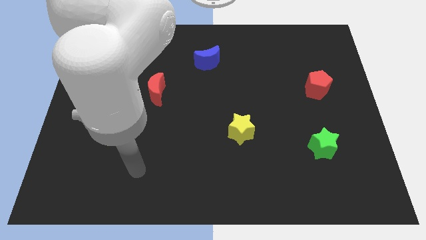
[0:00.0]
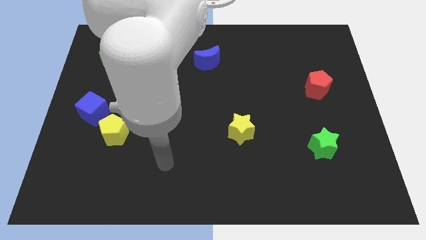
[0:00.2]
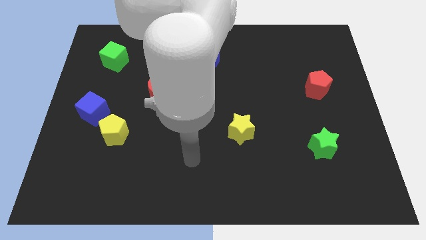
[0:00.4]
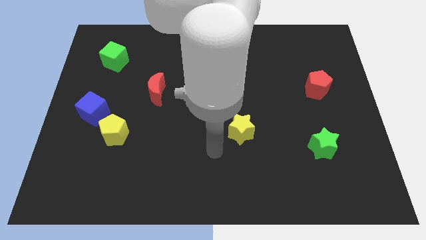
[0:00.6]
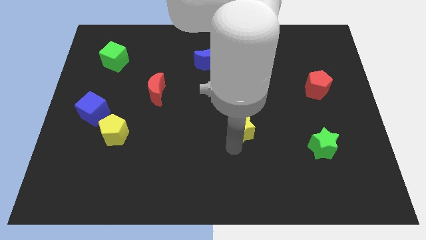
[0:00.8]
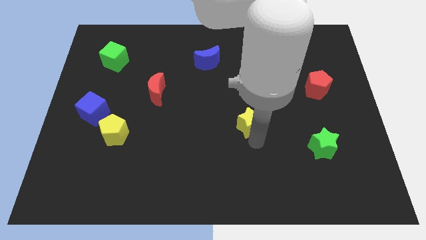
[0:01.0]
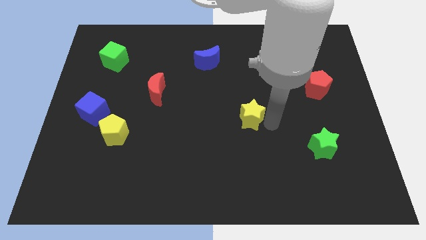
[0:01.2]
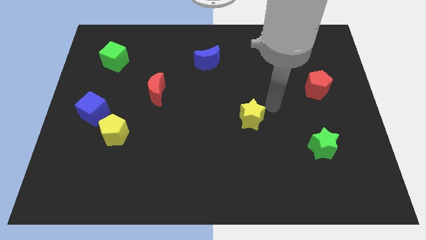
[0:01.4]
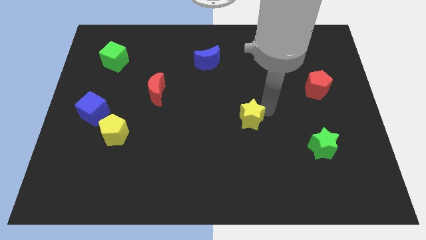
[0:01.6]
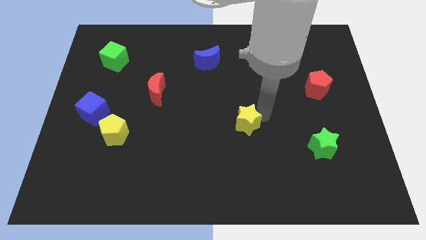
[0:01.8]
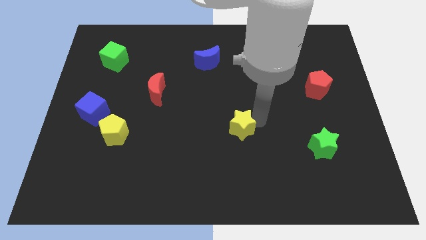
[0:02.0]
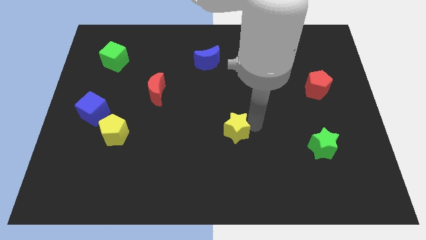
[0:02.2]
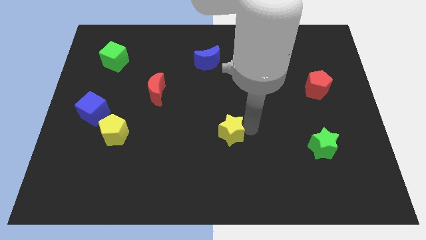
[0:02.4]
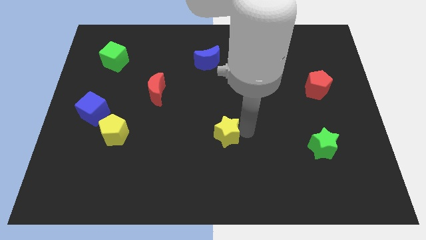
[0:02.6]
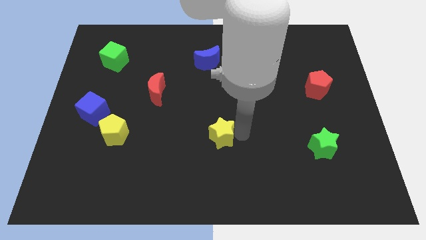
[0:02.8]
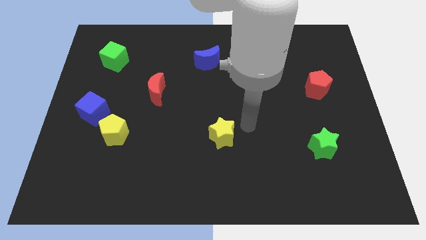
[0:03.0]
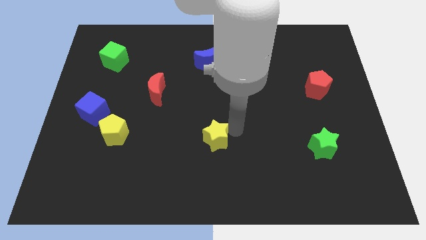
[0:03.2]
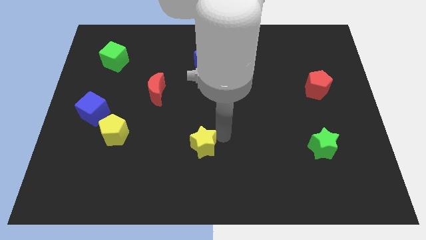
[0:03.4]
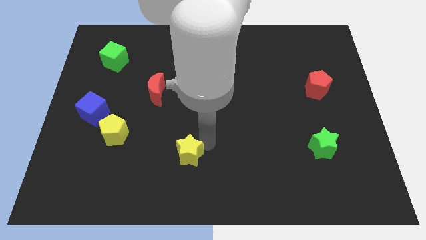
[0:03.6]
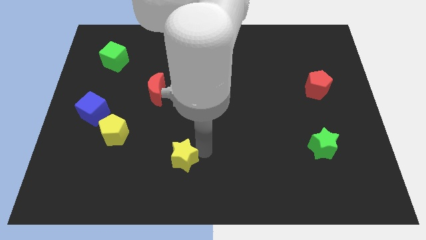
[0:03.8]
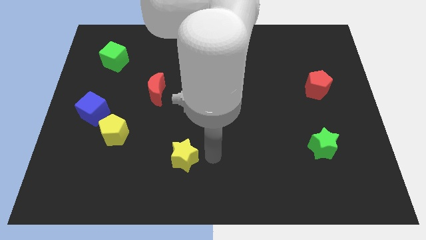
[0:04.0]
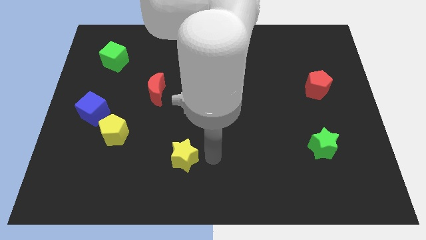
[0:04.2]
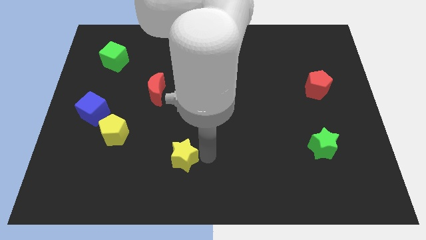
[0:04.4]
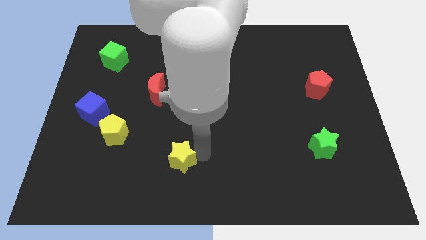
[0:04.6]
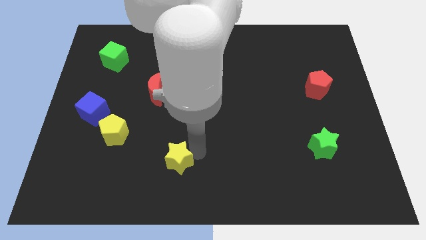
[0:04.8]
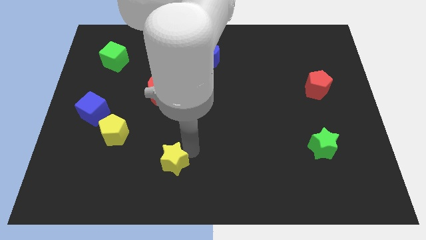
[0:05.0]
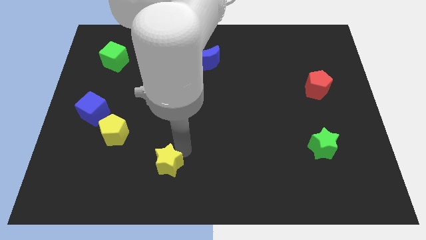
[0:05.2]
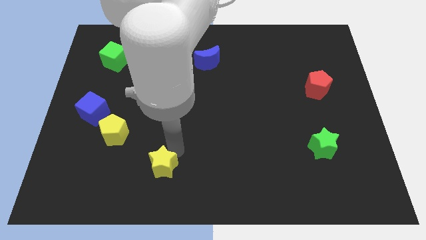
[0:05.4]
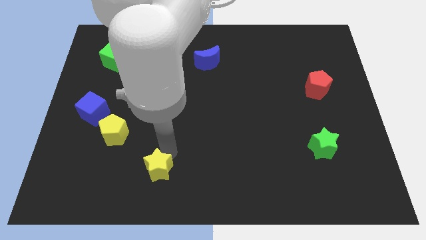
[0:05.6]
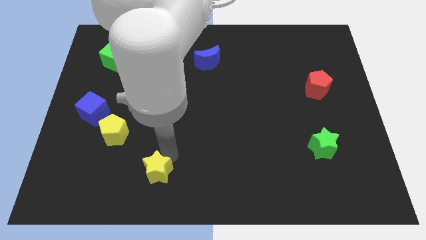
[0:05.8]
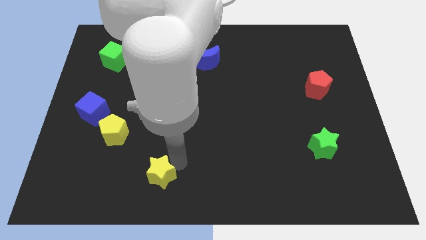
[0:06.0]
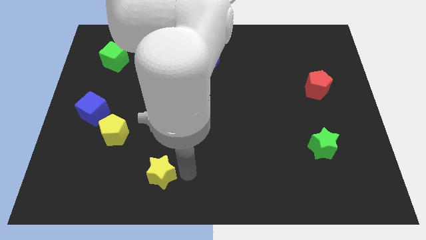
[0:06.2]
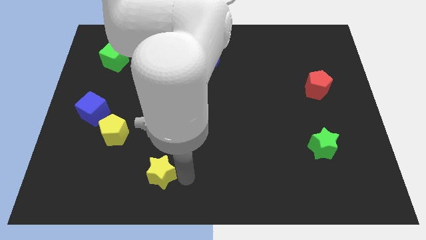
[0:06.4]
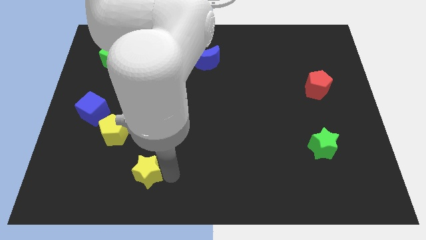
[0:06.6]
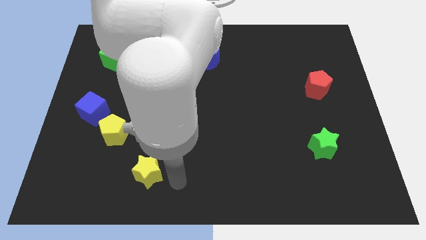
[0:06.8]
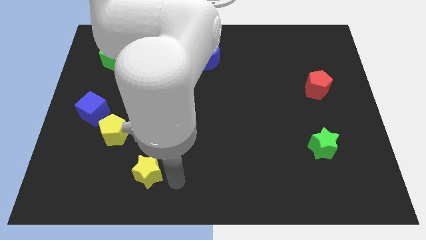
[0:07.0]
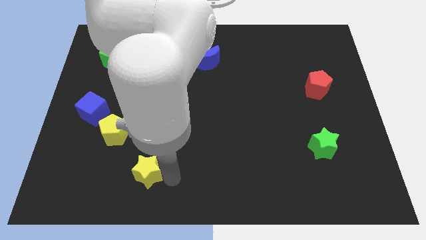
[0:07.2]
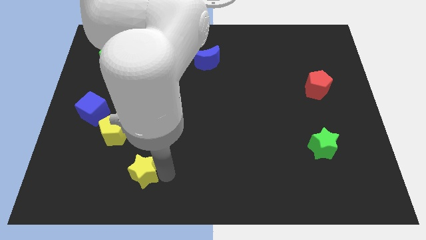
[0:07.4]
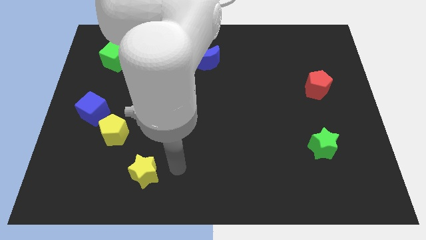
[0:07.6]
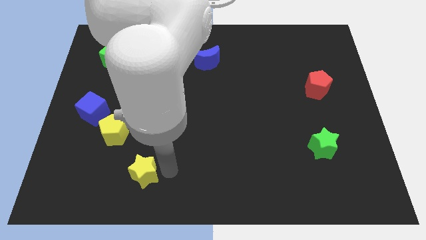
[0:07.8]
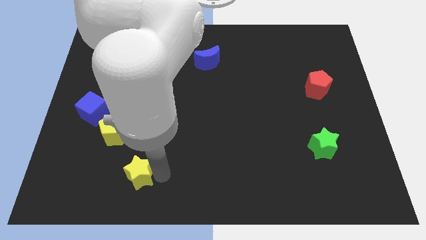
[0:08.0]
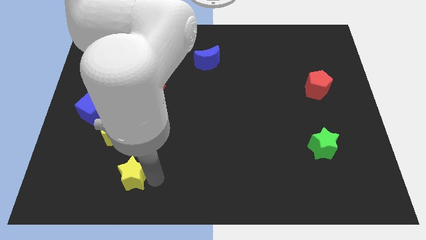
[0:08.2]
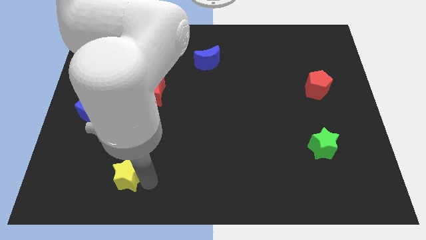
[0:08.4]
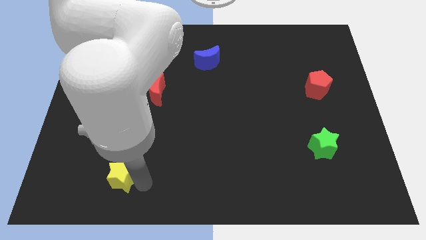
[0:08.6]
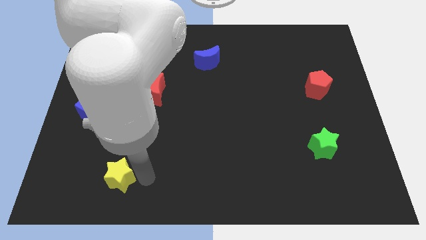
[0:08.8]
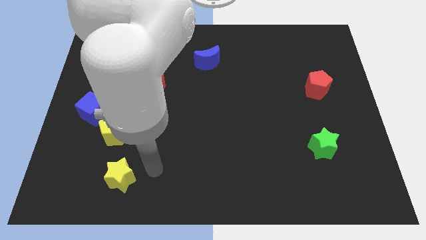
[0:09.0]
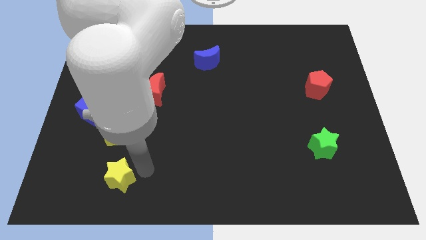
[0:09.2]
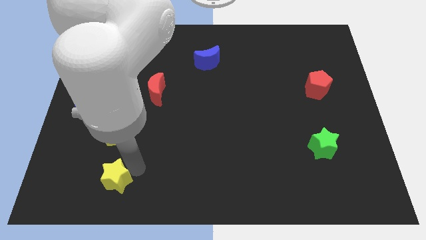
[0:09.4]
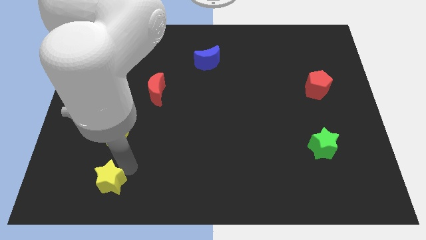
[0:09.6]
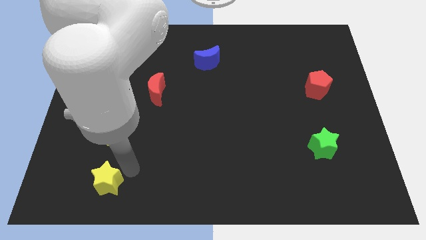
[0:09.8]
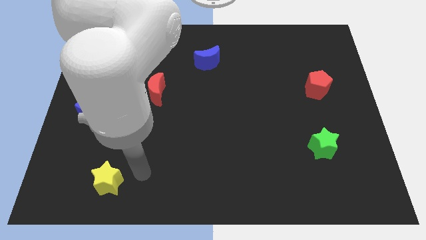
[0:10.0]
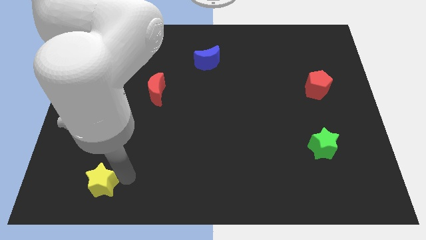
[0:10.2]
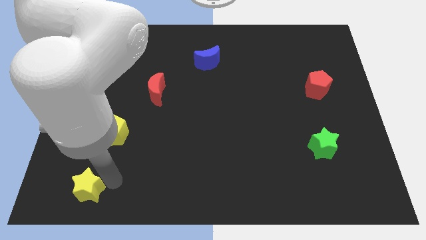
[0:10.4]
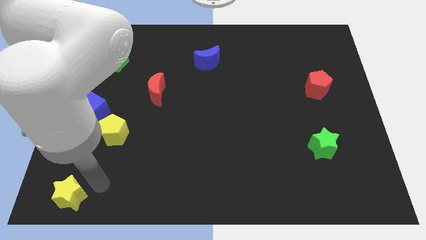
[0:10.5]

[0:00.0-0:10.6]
put the yellow star to the lower left corner
